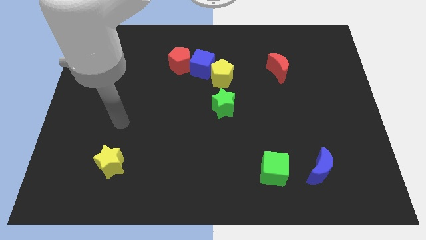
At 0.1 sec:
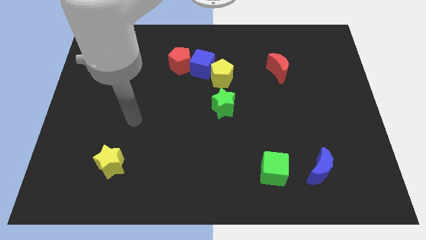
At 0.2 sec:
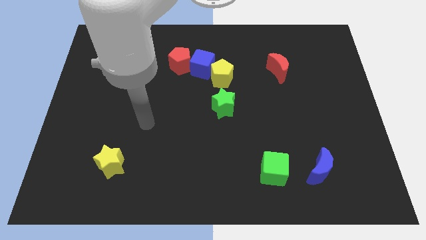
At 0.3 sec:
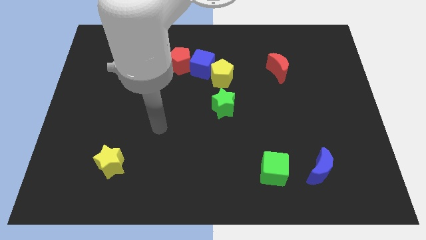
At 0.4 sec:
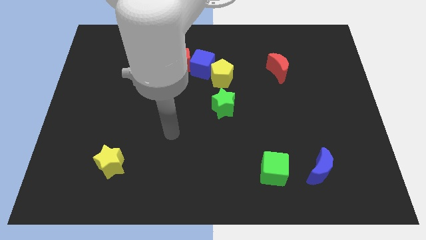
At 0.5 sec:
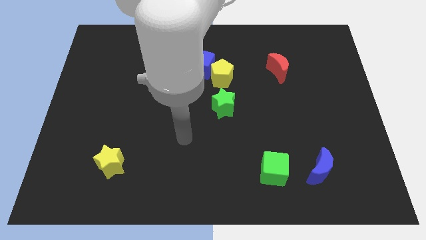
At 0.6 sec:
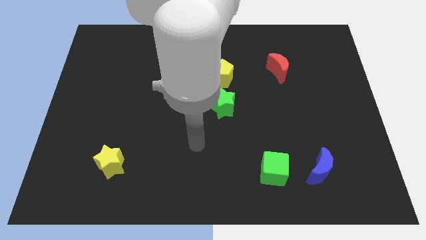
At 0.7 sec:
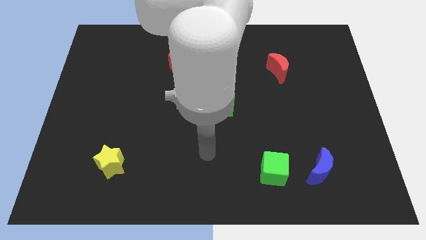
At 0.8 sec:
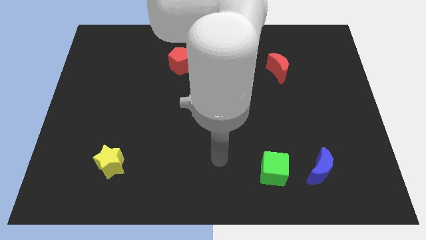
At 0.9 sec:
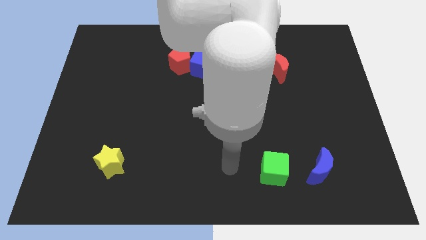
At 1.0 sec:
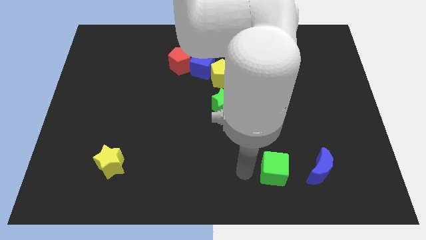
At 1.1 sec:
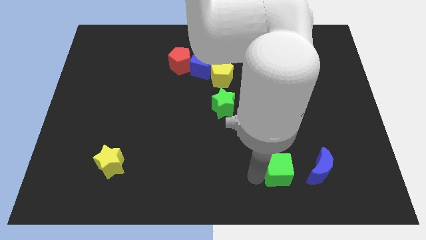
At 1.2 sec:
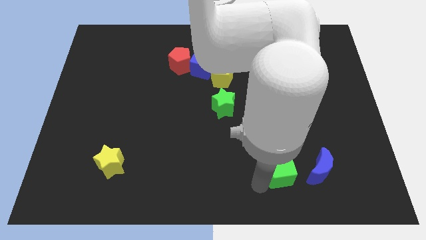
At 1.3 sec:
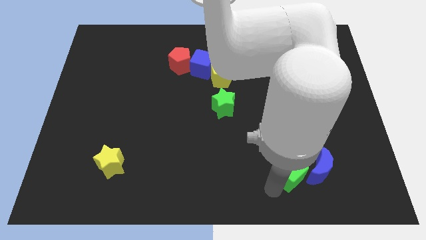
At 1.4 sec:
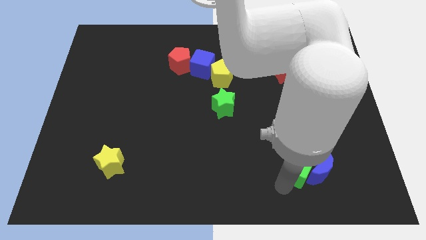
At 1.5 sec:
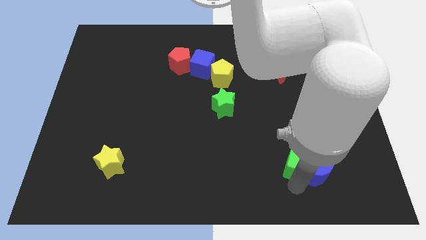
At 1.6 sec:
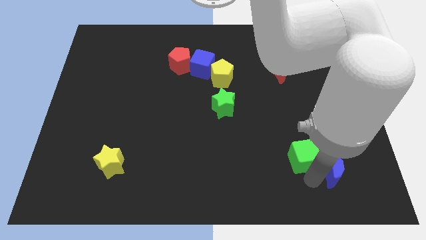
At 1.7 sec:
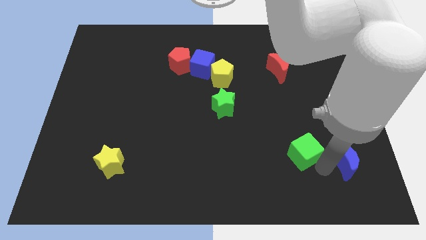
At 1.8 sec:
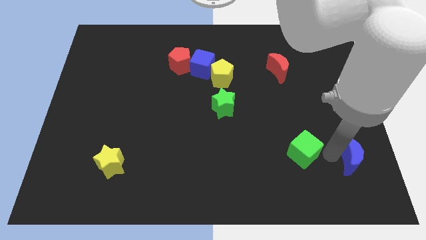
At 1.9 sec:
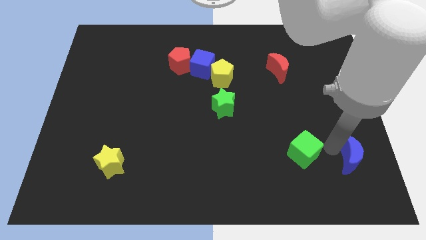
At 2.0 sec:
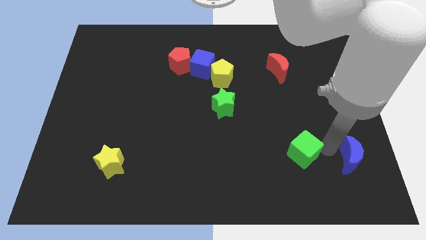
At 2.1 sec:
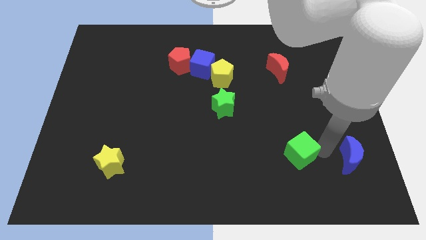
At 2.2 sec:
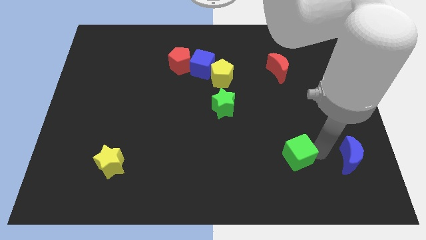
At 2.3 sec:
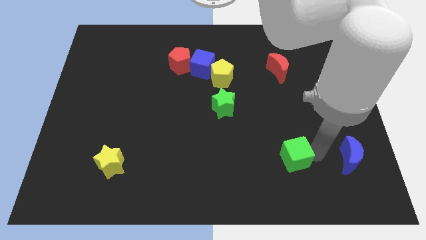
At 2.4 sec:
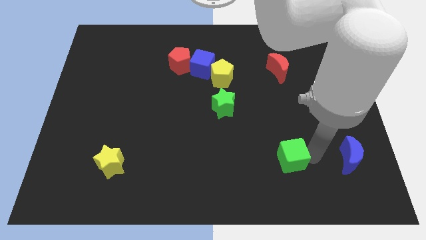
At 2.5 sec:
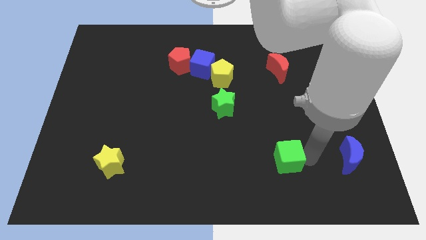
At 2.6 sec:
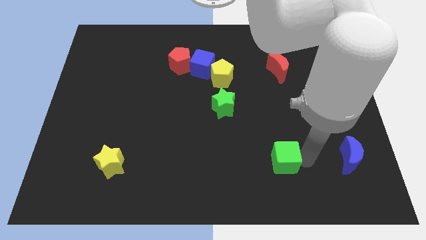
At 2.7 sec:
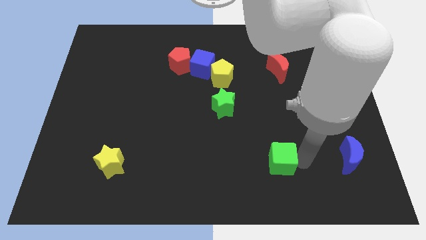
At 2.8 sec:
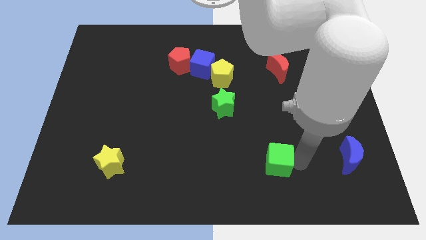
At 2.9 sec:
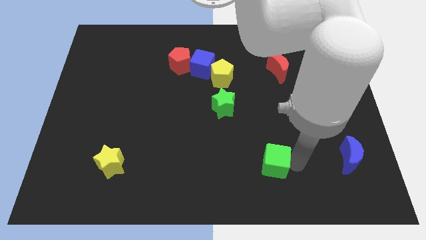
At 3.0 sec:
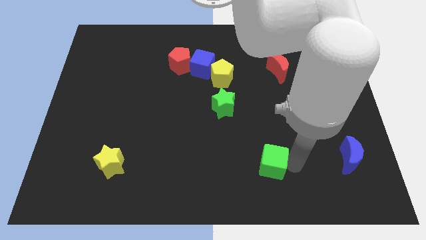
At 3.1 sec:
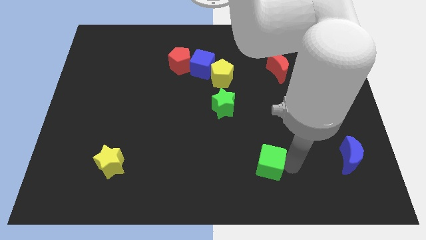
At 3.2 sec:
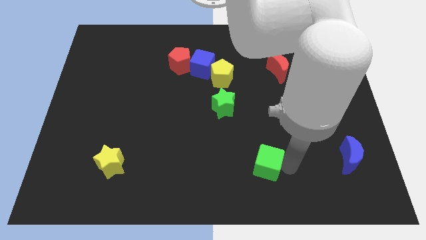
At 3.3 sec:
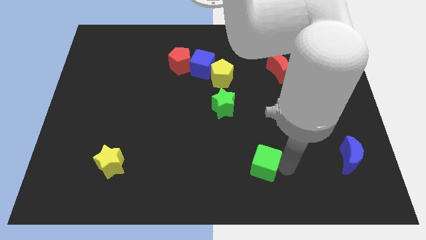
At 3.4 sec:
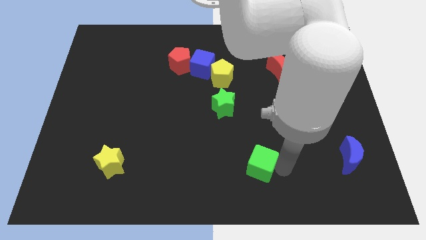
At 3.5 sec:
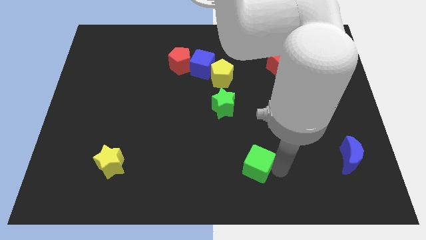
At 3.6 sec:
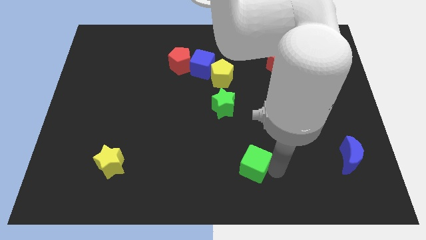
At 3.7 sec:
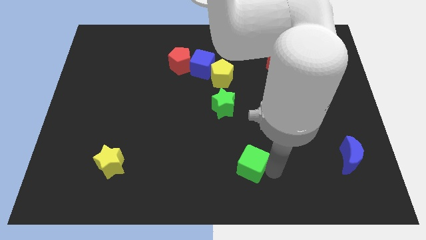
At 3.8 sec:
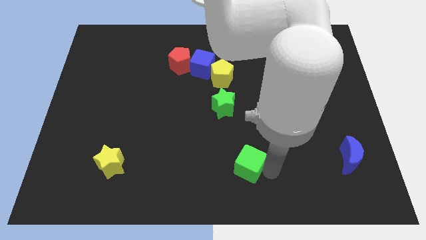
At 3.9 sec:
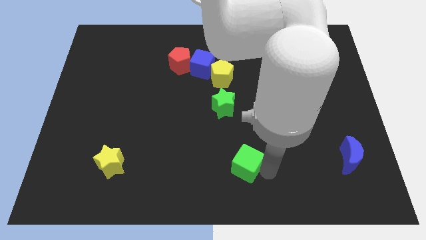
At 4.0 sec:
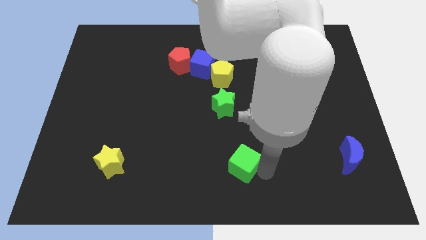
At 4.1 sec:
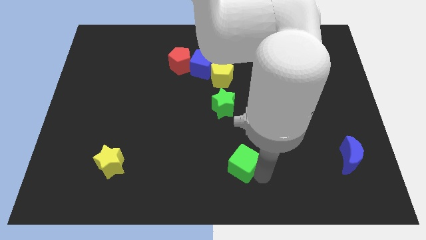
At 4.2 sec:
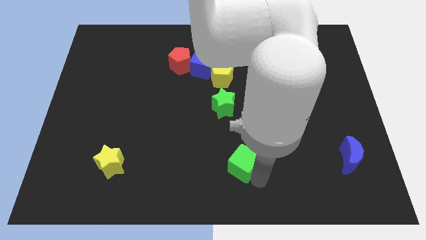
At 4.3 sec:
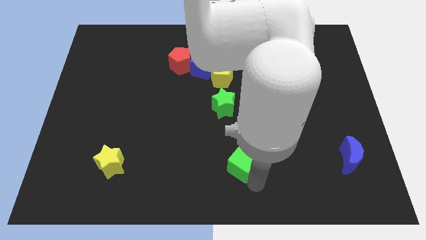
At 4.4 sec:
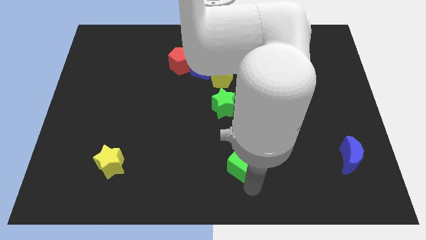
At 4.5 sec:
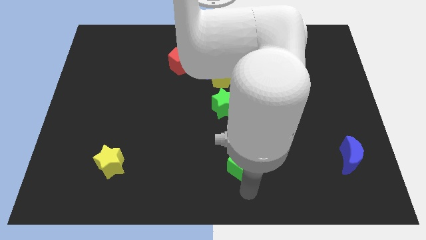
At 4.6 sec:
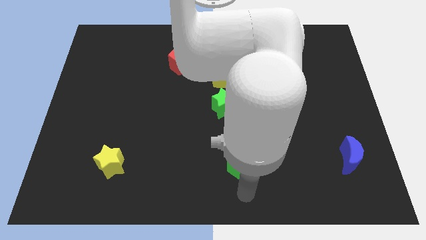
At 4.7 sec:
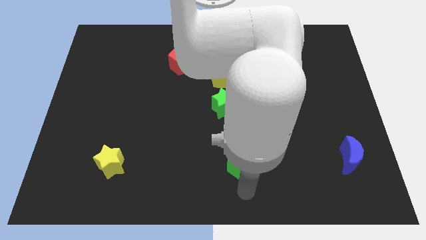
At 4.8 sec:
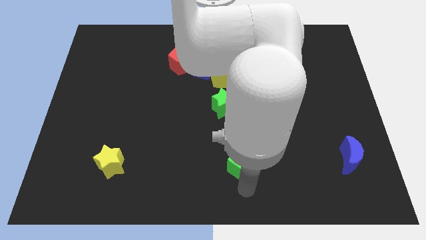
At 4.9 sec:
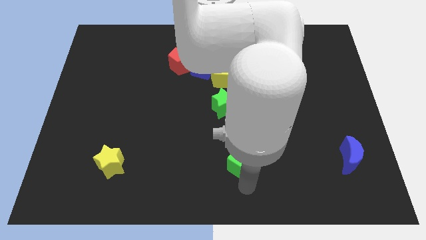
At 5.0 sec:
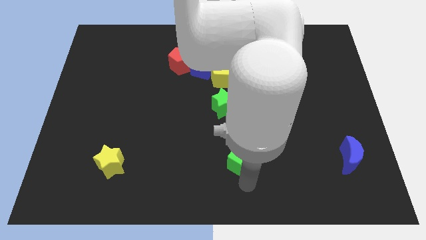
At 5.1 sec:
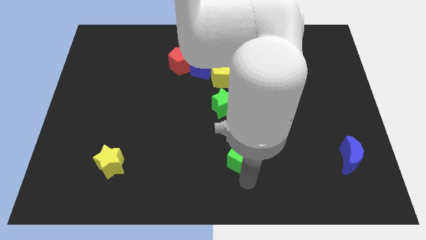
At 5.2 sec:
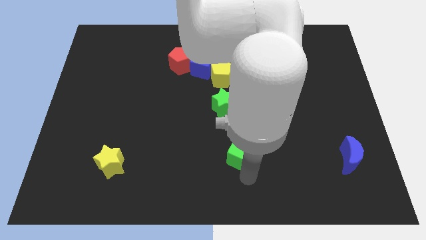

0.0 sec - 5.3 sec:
slightly move the green cube diagonally upwards and left

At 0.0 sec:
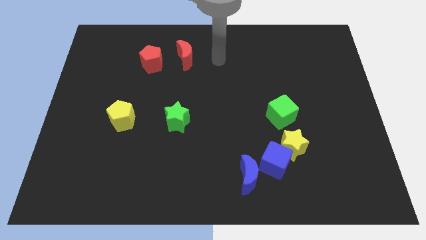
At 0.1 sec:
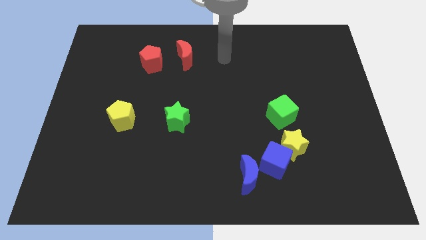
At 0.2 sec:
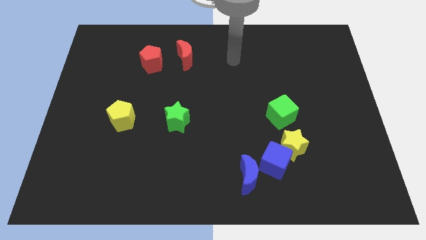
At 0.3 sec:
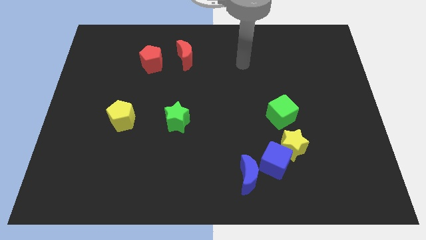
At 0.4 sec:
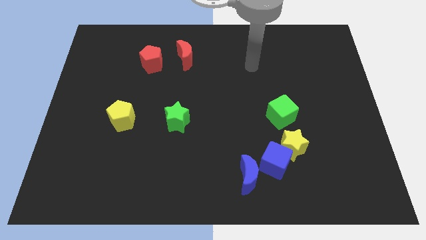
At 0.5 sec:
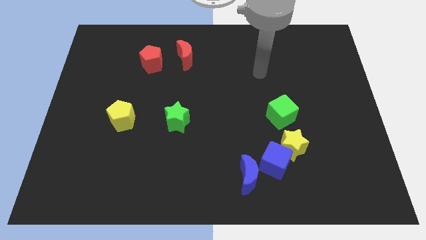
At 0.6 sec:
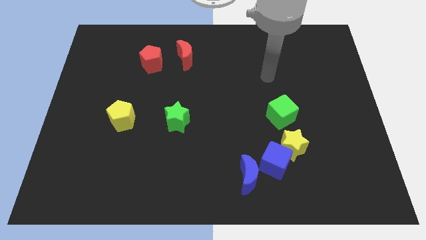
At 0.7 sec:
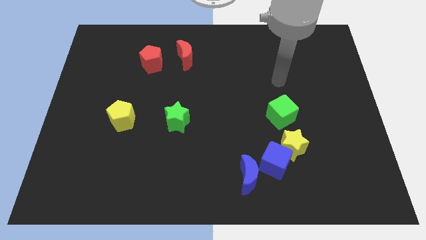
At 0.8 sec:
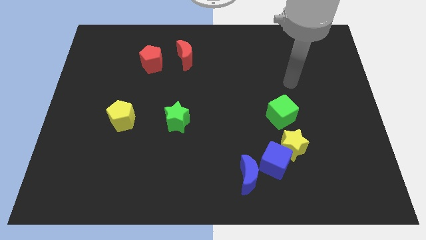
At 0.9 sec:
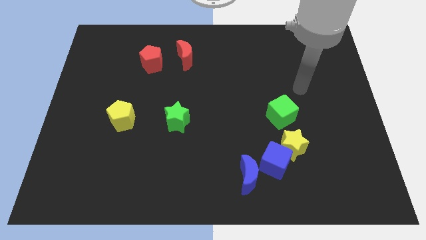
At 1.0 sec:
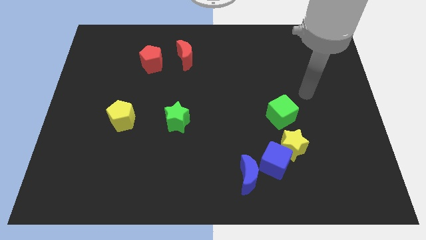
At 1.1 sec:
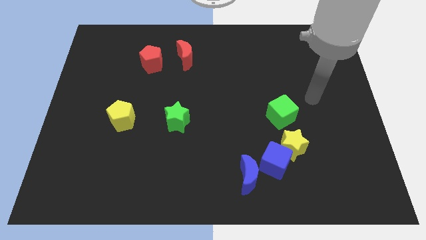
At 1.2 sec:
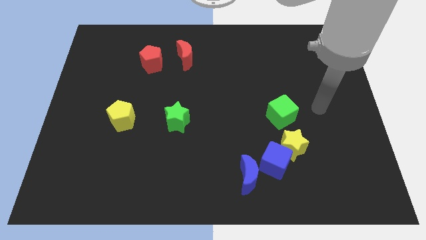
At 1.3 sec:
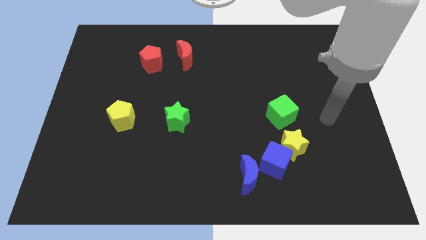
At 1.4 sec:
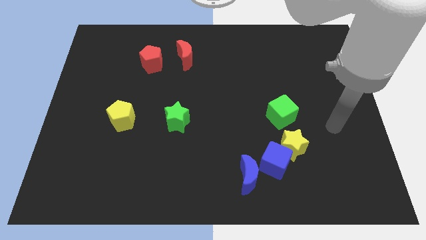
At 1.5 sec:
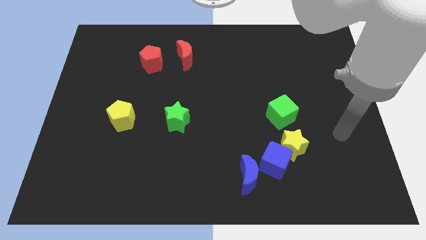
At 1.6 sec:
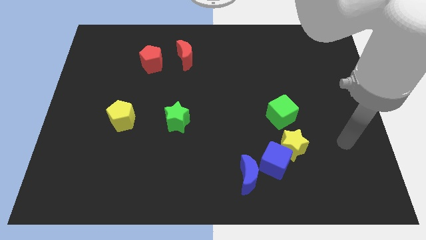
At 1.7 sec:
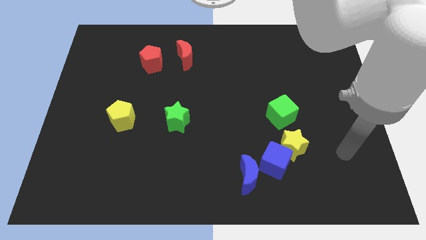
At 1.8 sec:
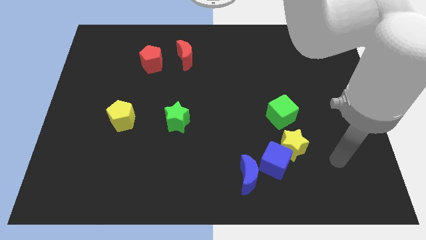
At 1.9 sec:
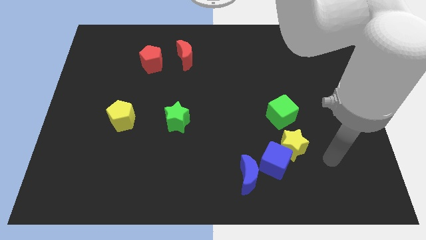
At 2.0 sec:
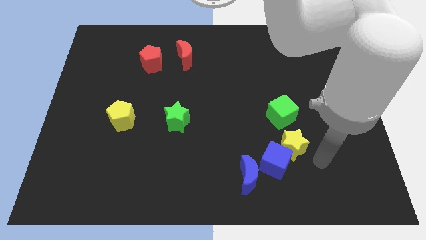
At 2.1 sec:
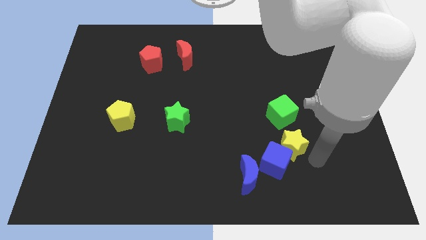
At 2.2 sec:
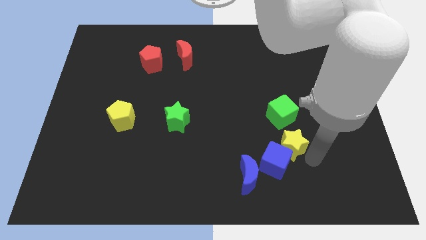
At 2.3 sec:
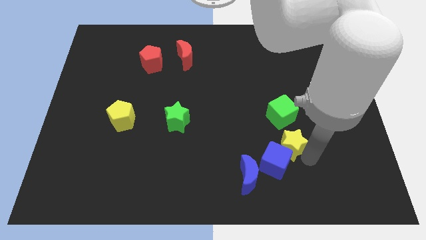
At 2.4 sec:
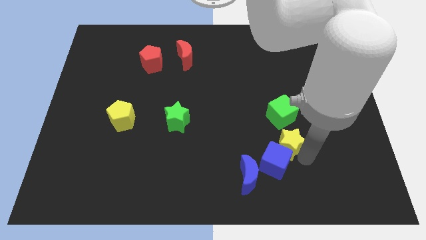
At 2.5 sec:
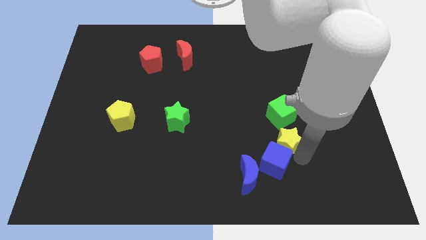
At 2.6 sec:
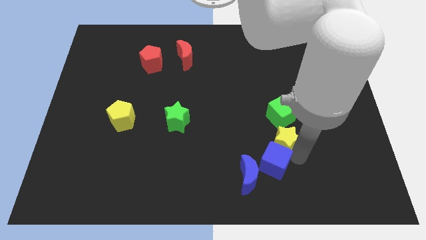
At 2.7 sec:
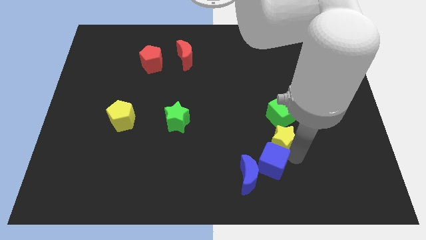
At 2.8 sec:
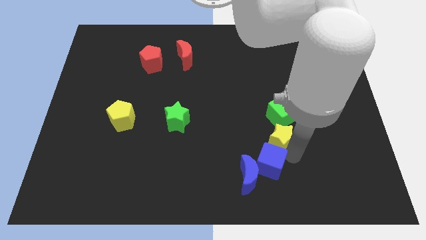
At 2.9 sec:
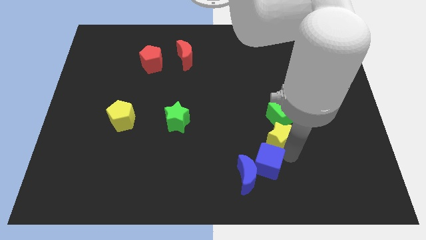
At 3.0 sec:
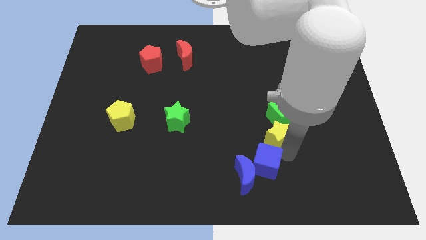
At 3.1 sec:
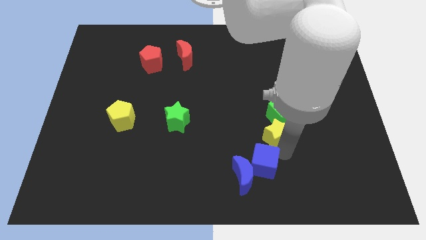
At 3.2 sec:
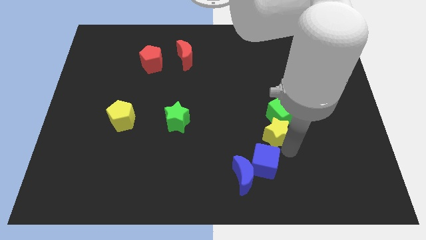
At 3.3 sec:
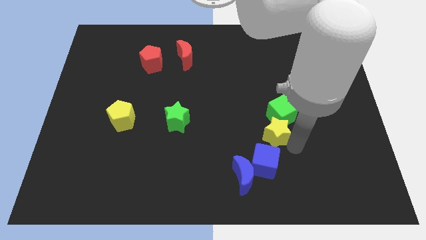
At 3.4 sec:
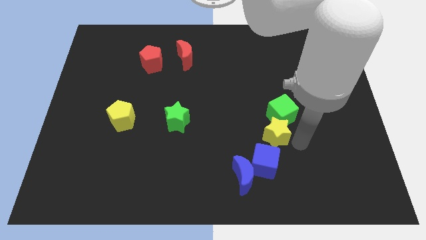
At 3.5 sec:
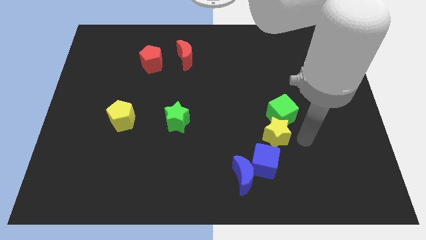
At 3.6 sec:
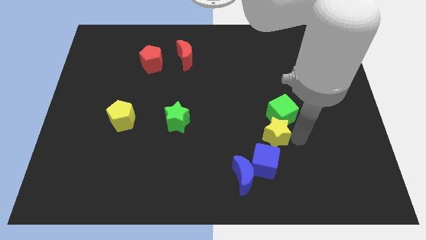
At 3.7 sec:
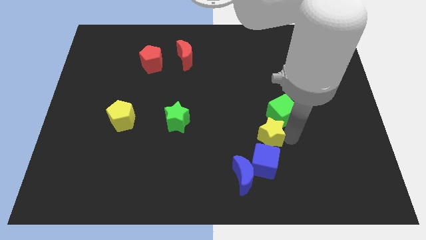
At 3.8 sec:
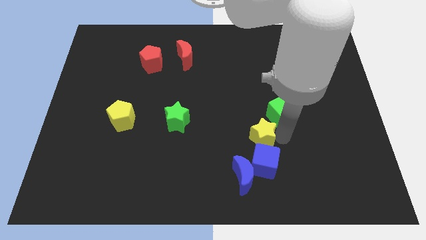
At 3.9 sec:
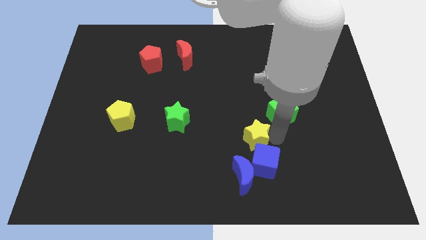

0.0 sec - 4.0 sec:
move the yellow star left slightly
